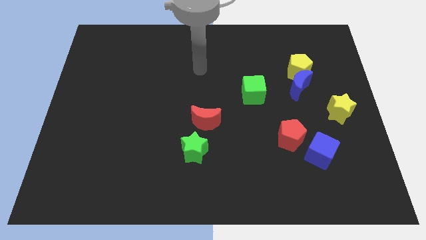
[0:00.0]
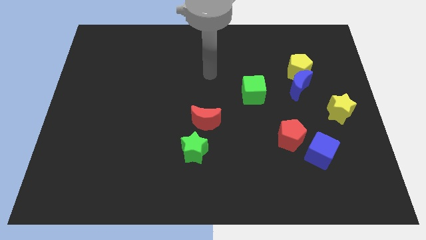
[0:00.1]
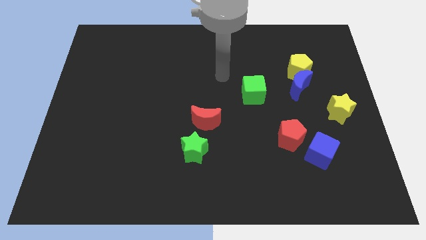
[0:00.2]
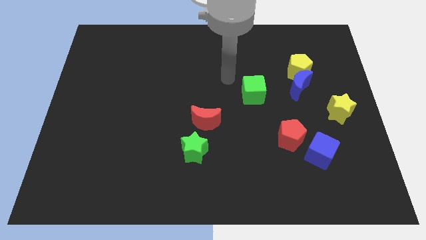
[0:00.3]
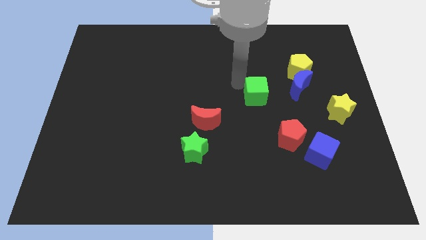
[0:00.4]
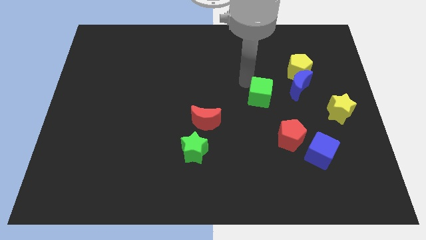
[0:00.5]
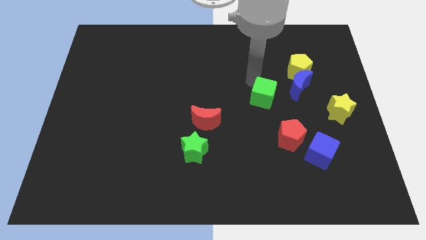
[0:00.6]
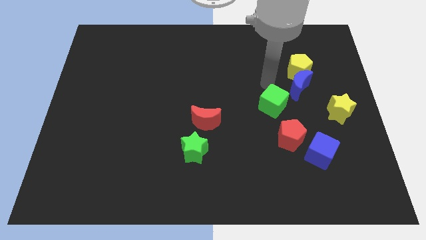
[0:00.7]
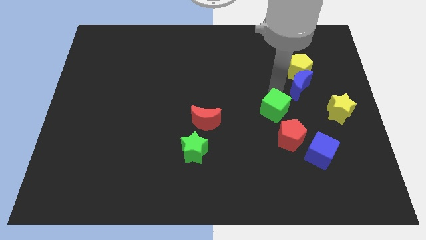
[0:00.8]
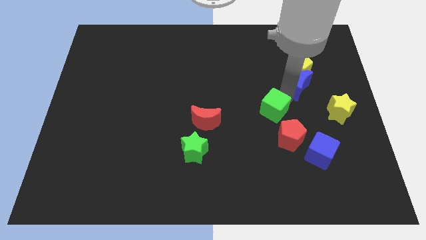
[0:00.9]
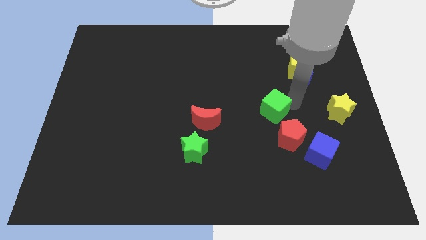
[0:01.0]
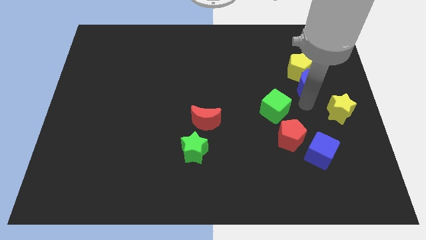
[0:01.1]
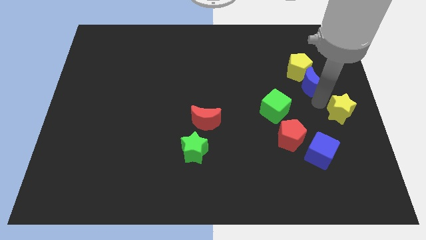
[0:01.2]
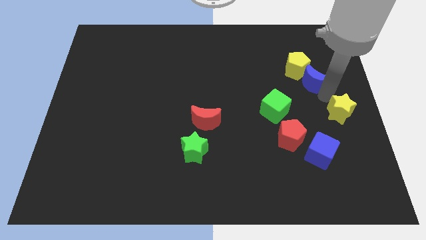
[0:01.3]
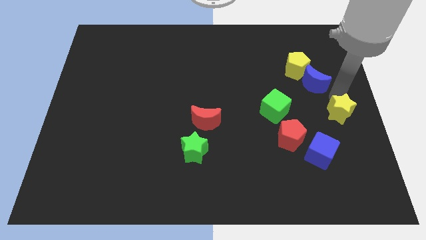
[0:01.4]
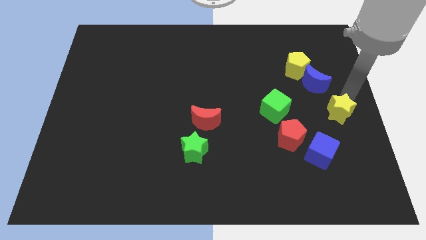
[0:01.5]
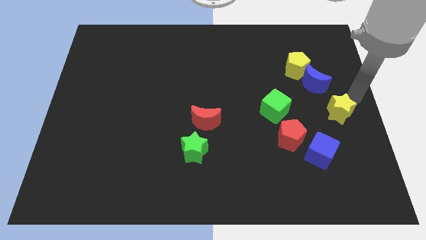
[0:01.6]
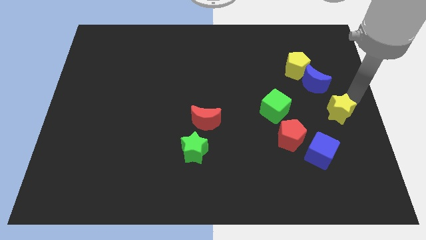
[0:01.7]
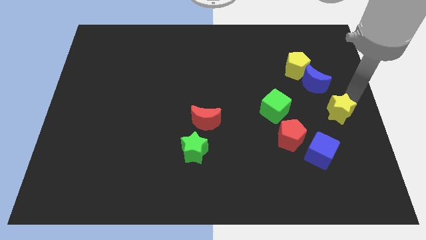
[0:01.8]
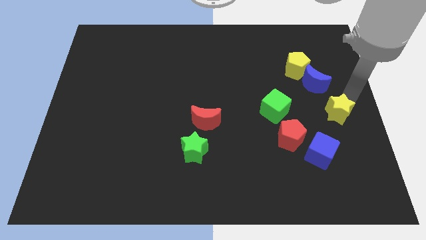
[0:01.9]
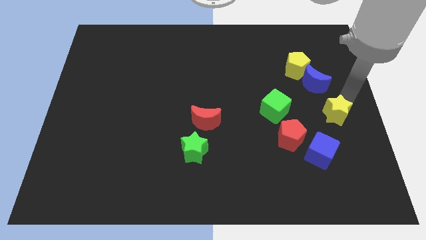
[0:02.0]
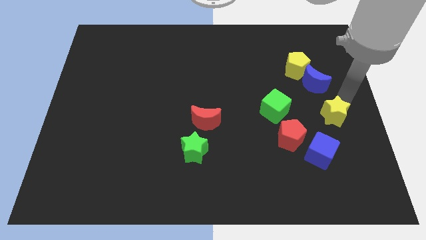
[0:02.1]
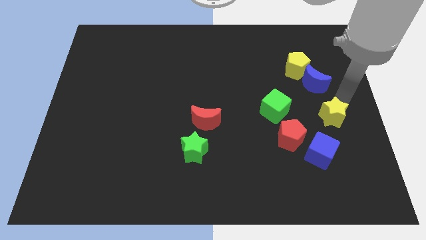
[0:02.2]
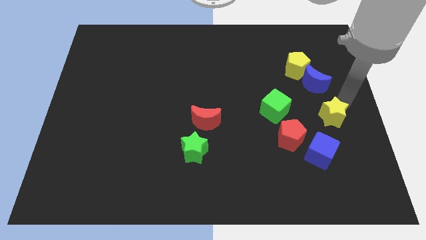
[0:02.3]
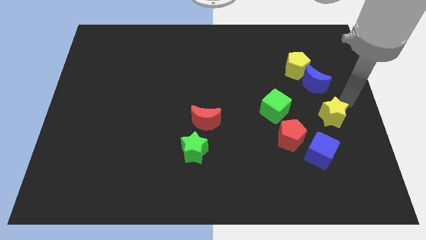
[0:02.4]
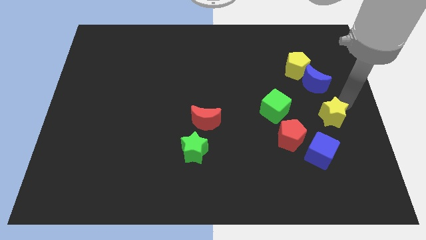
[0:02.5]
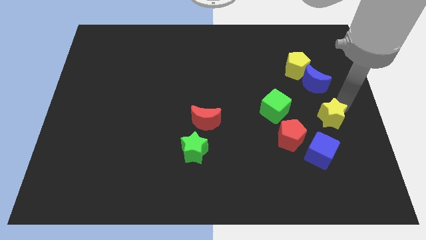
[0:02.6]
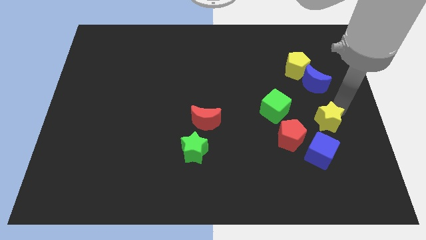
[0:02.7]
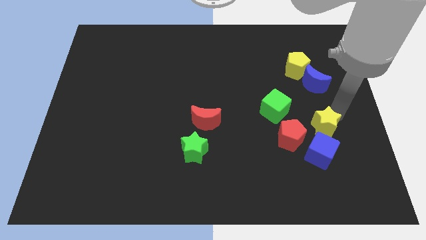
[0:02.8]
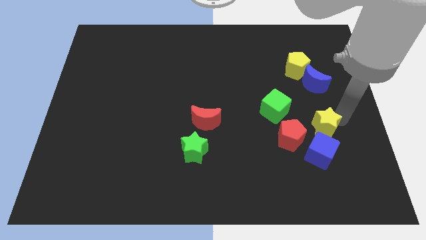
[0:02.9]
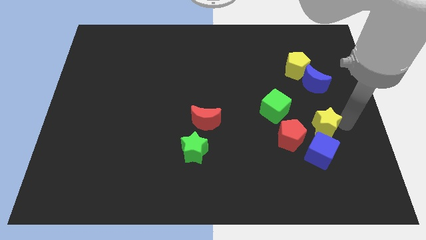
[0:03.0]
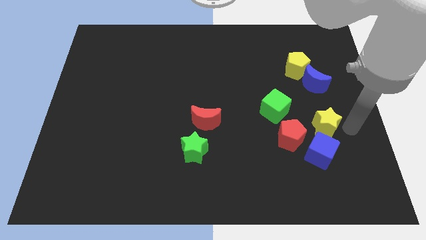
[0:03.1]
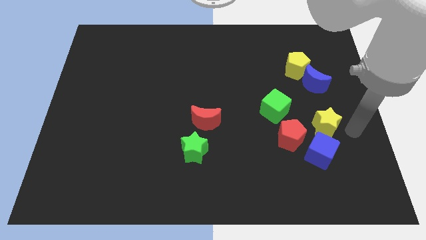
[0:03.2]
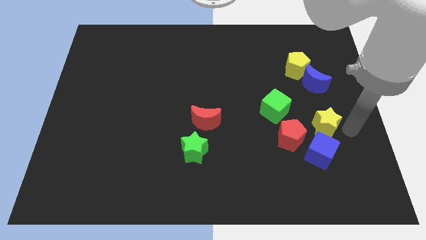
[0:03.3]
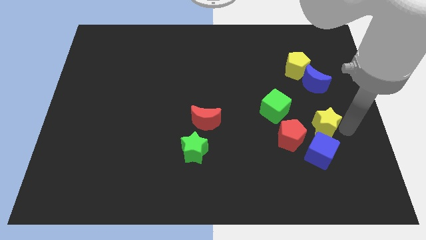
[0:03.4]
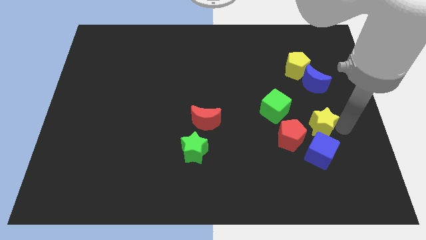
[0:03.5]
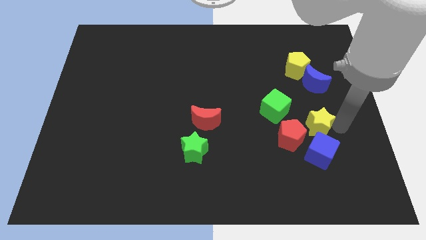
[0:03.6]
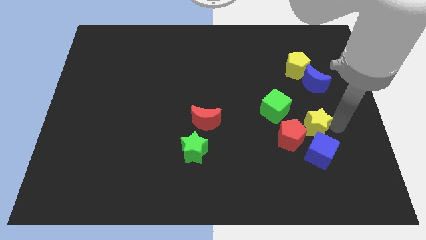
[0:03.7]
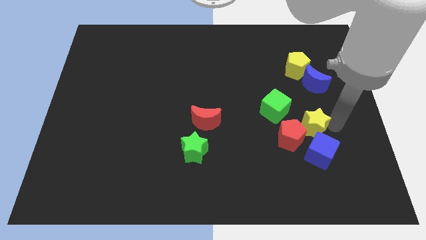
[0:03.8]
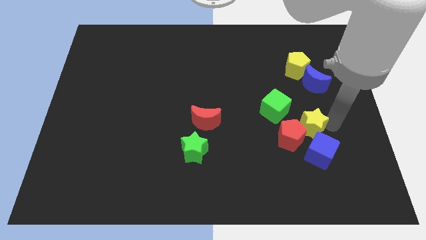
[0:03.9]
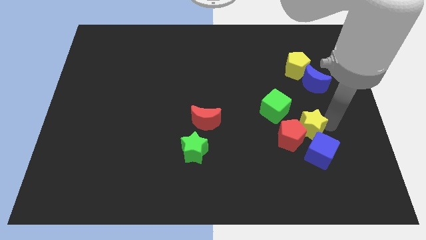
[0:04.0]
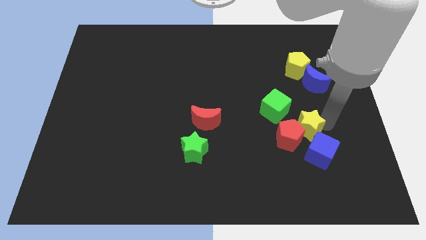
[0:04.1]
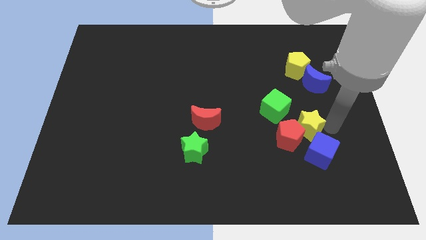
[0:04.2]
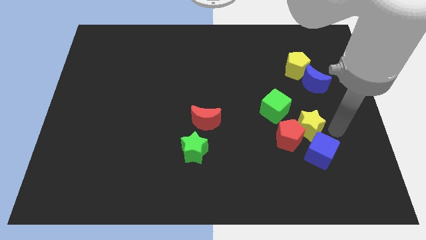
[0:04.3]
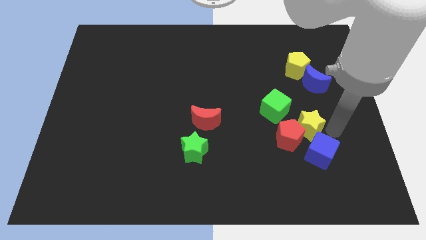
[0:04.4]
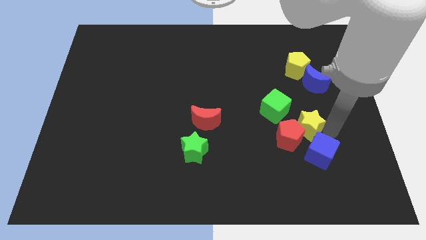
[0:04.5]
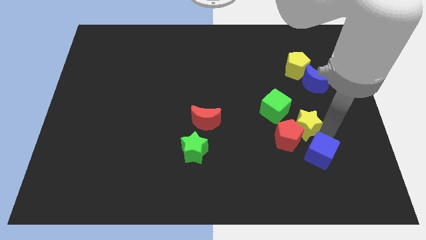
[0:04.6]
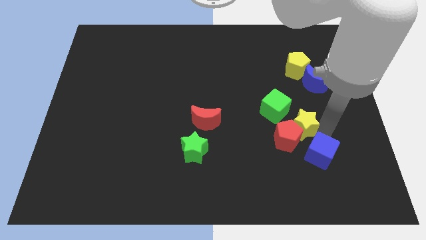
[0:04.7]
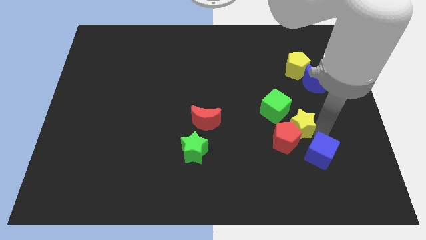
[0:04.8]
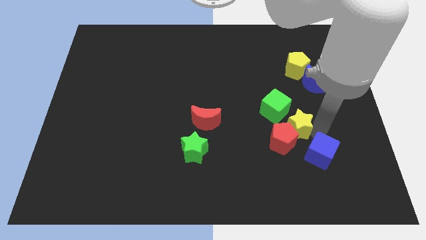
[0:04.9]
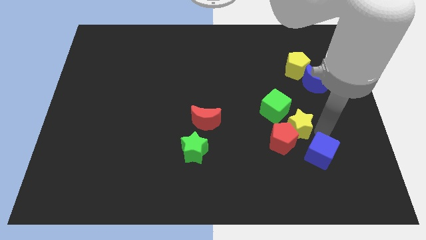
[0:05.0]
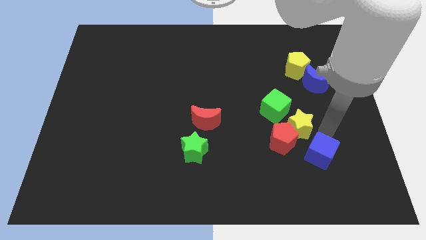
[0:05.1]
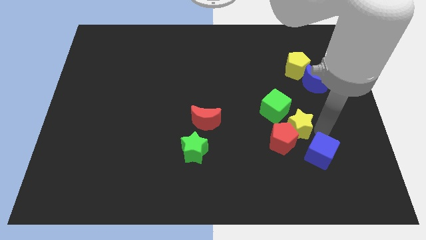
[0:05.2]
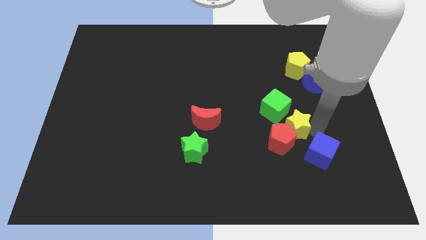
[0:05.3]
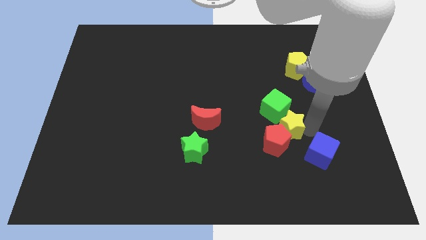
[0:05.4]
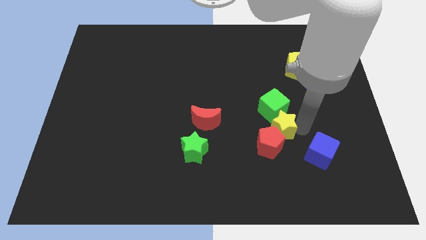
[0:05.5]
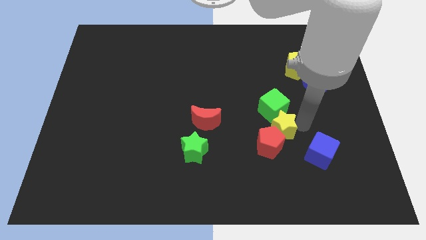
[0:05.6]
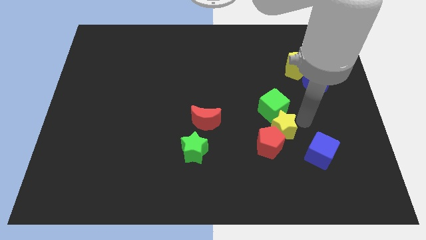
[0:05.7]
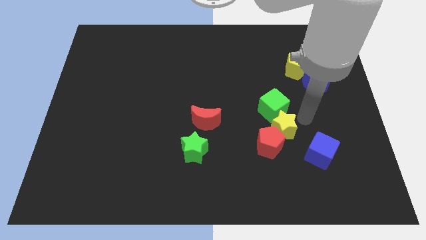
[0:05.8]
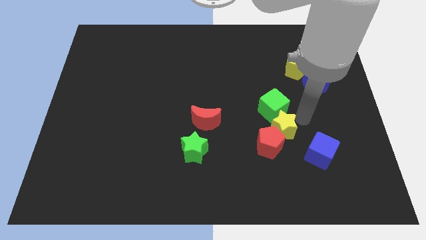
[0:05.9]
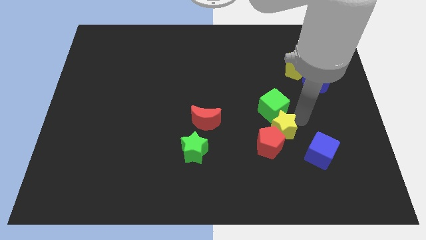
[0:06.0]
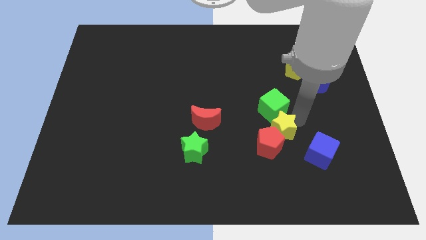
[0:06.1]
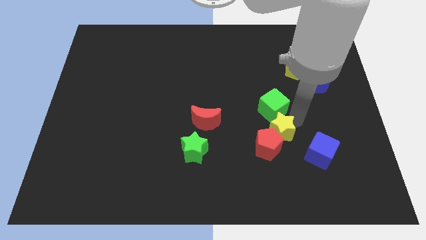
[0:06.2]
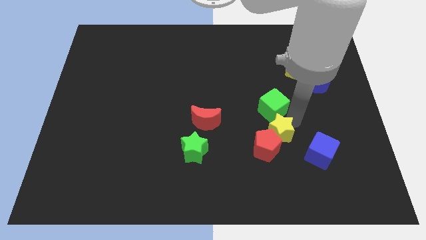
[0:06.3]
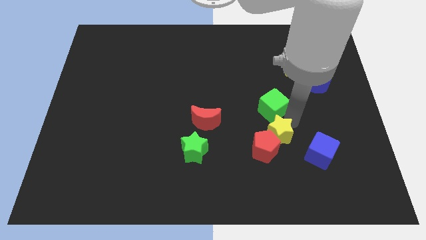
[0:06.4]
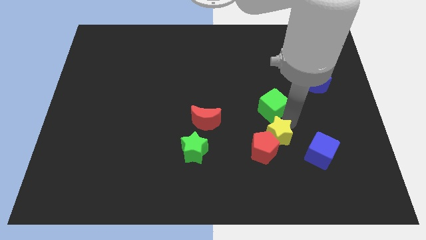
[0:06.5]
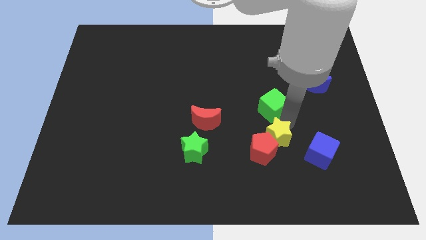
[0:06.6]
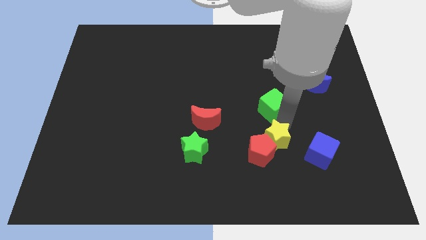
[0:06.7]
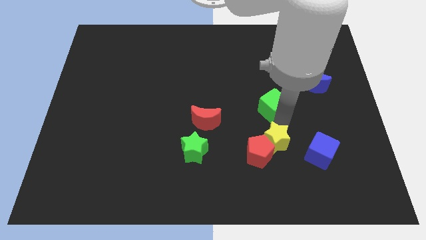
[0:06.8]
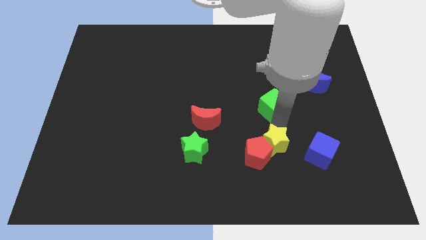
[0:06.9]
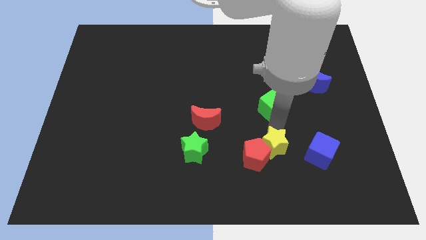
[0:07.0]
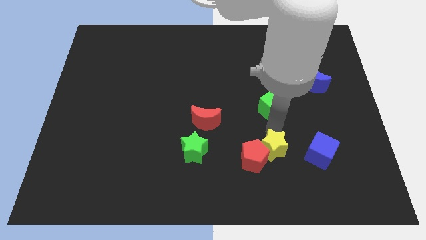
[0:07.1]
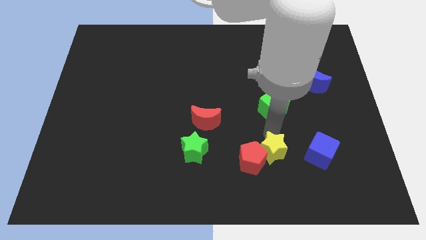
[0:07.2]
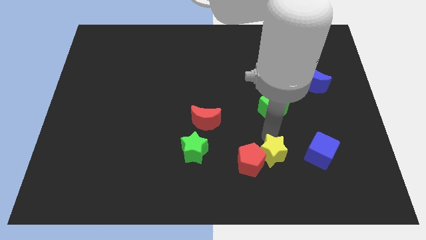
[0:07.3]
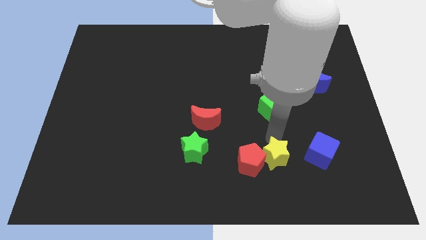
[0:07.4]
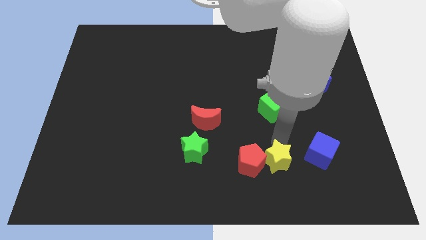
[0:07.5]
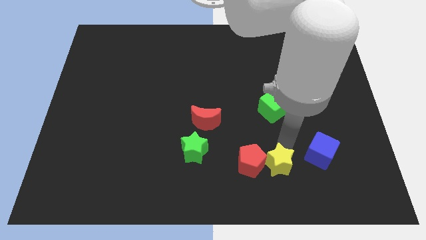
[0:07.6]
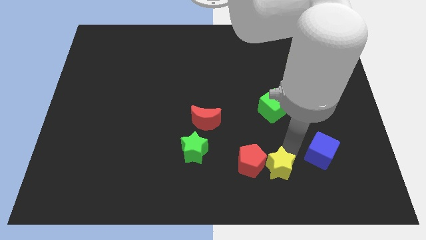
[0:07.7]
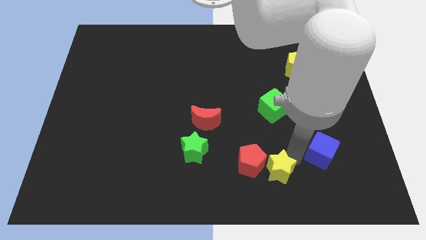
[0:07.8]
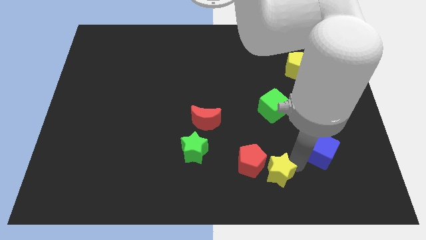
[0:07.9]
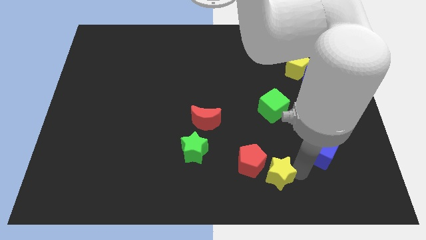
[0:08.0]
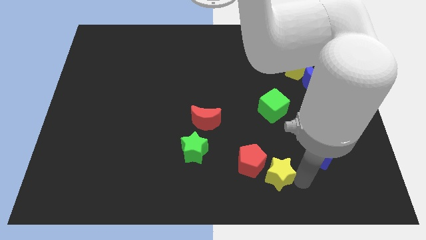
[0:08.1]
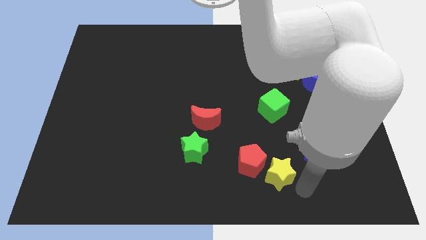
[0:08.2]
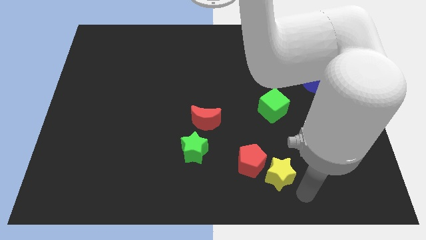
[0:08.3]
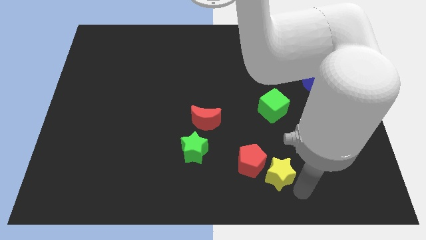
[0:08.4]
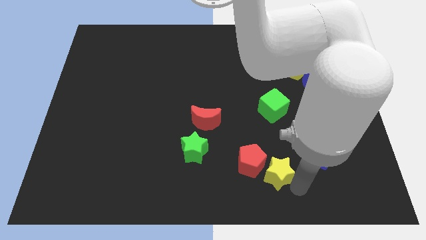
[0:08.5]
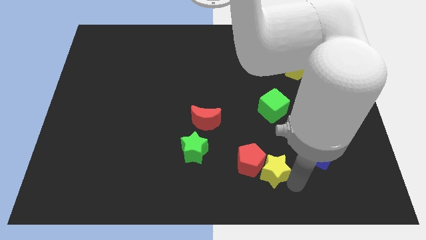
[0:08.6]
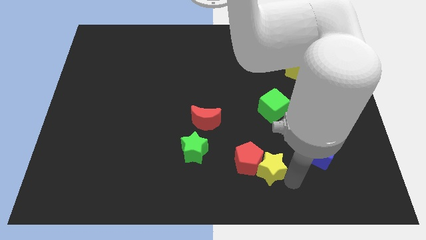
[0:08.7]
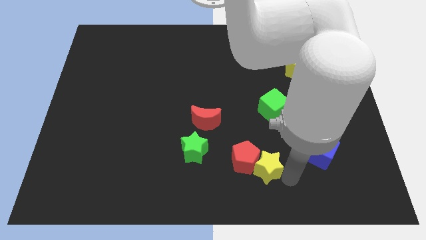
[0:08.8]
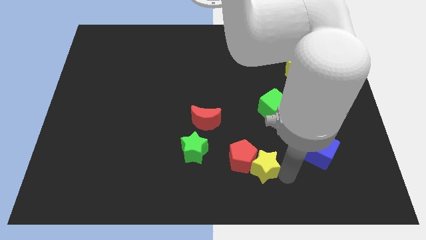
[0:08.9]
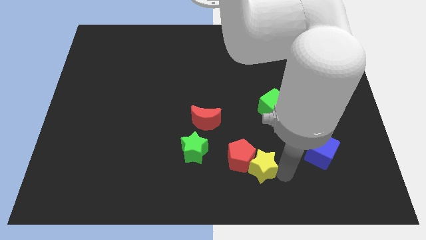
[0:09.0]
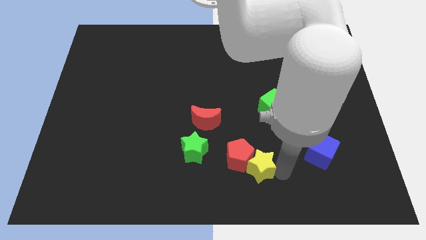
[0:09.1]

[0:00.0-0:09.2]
put the yellow star to the bottom
